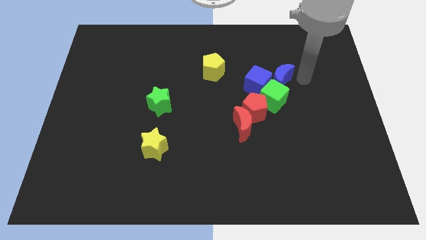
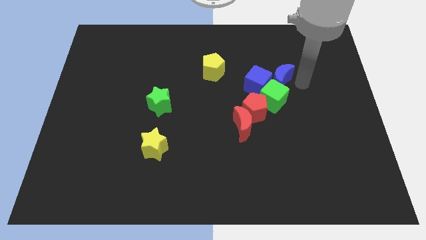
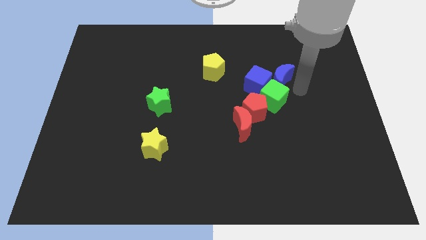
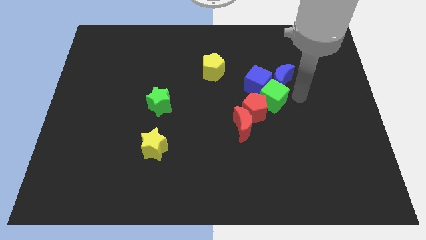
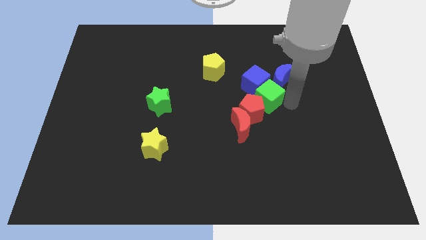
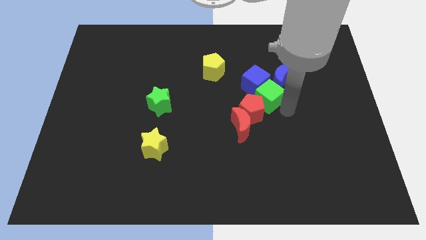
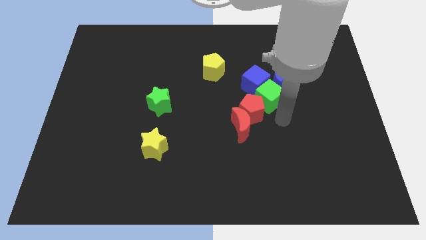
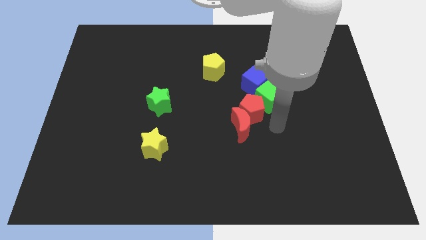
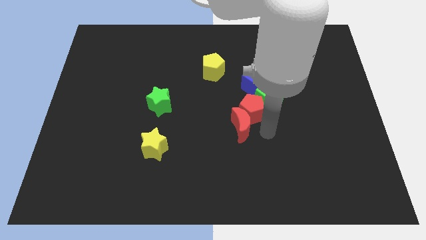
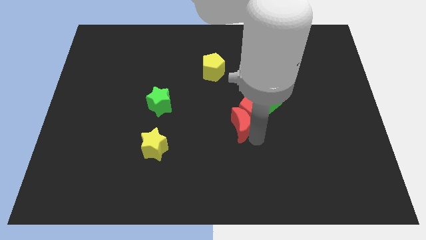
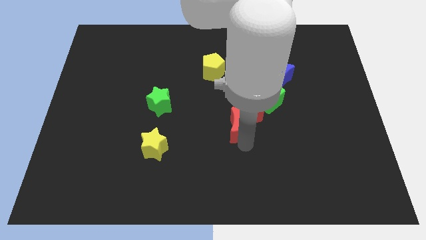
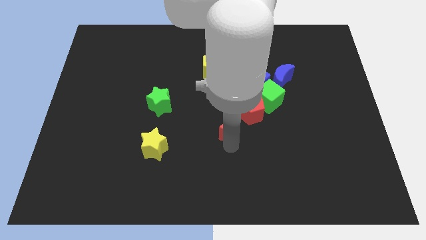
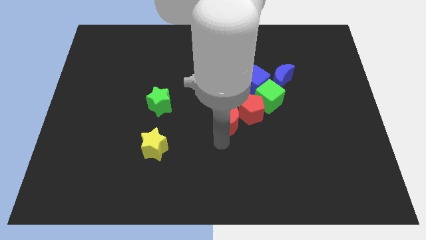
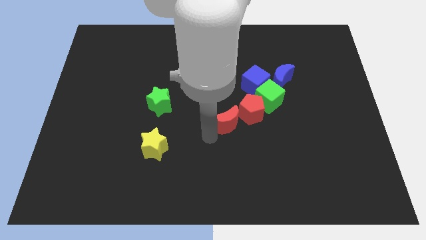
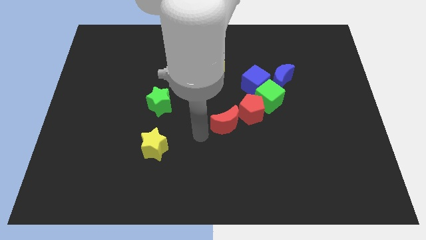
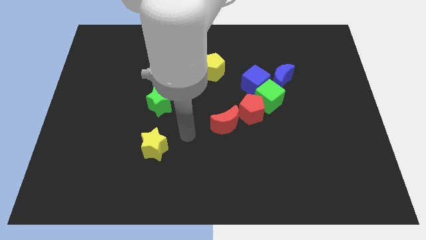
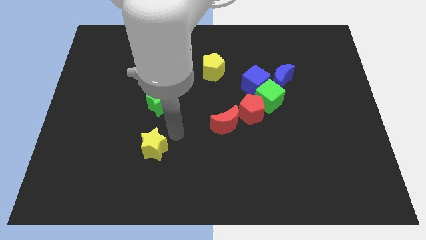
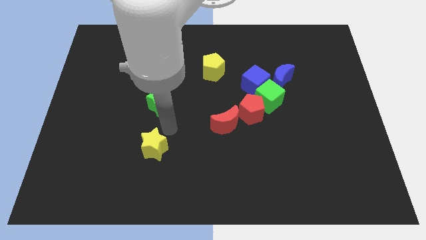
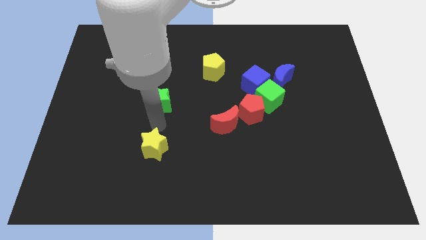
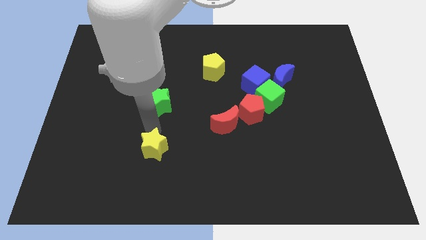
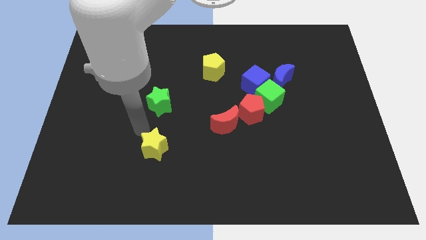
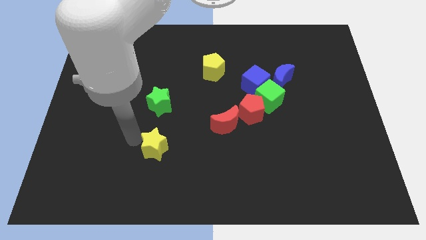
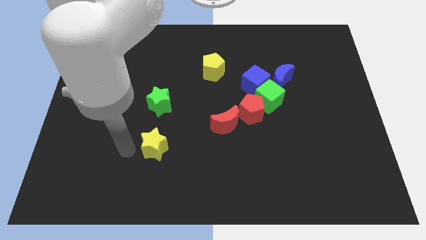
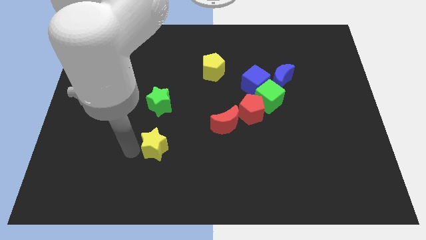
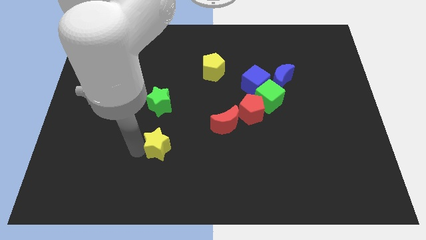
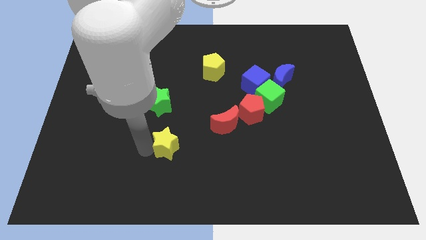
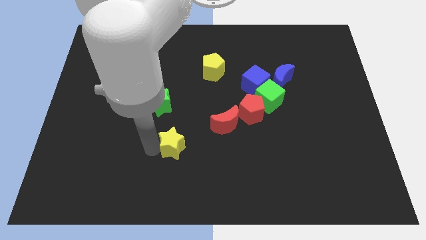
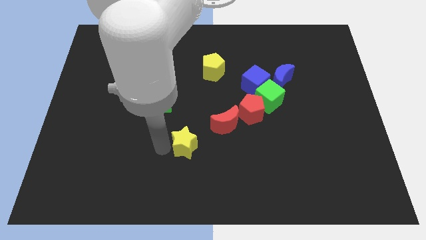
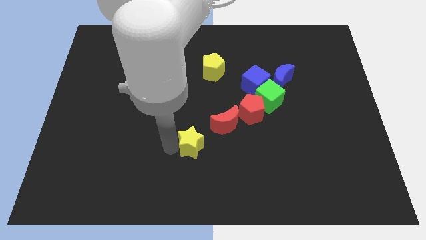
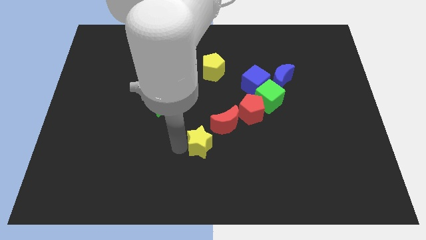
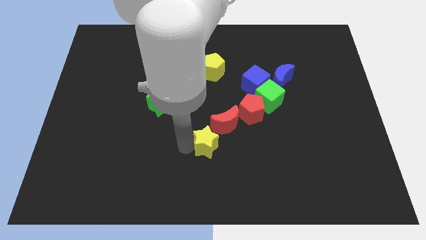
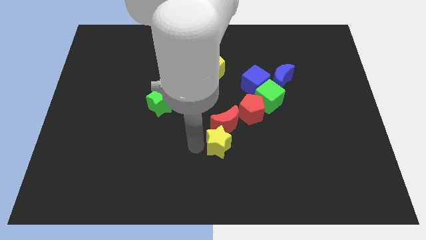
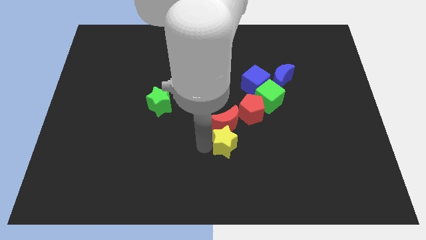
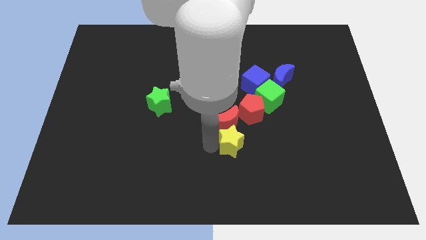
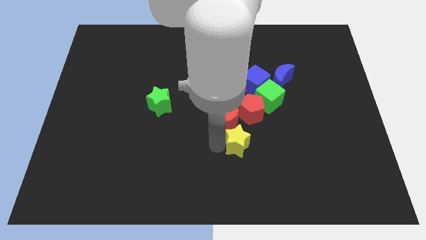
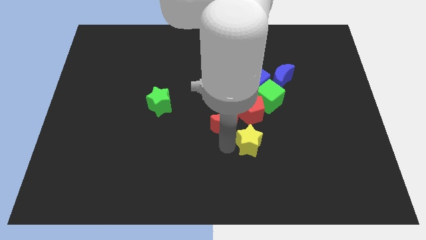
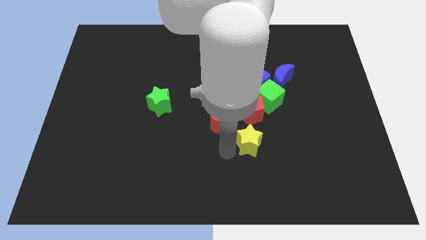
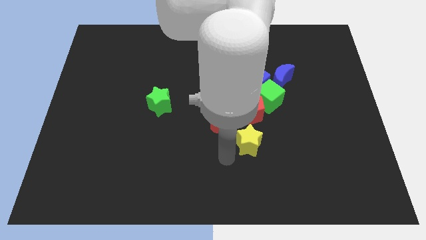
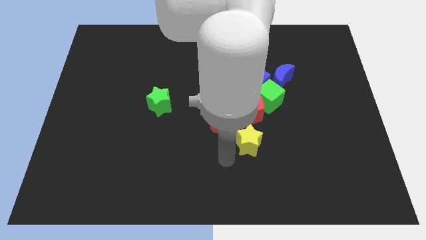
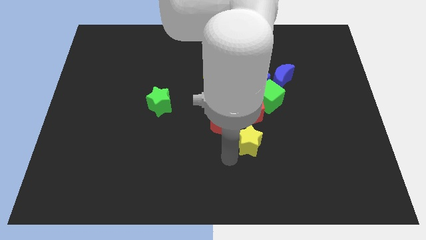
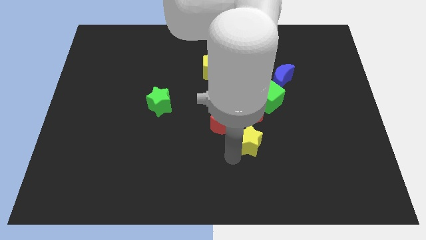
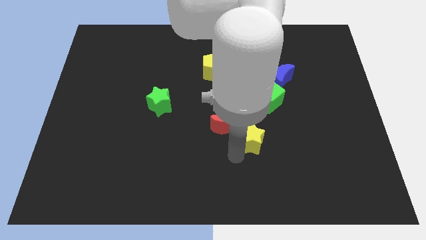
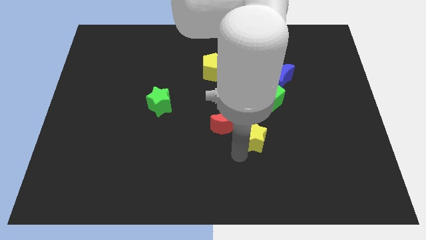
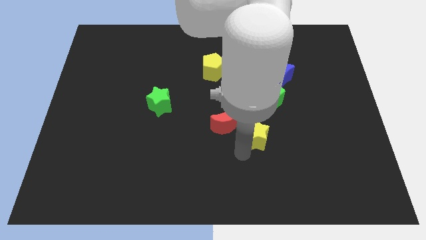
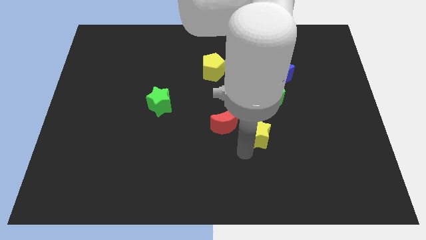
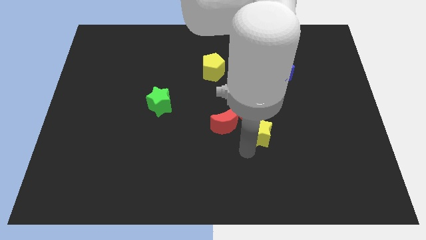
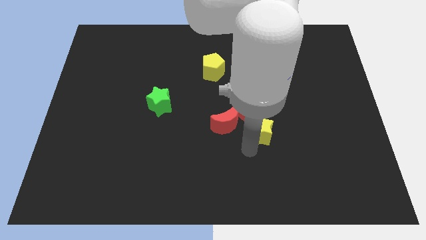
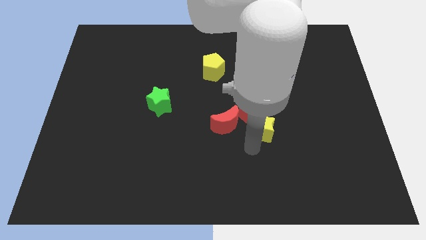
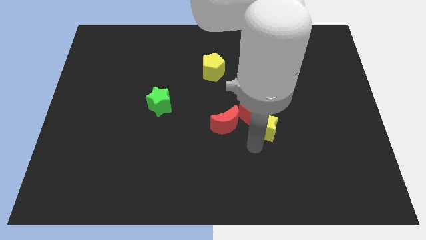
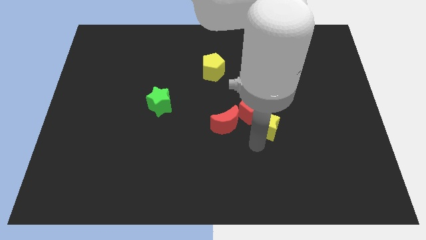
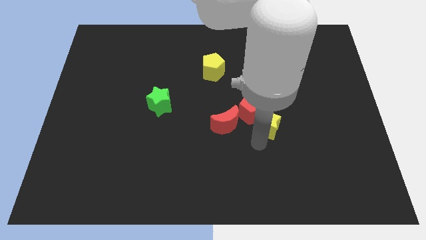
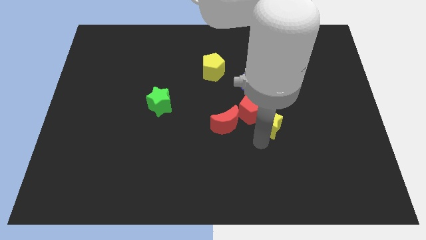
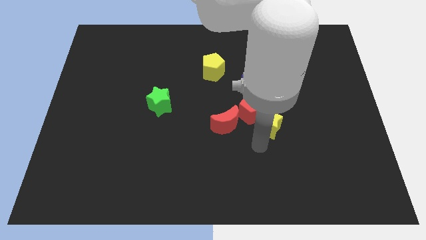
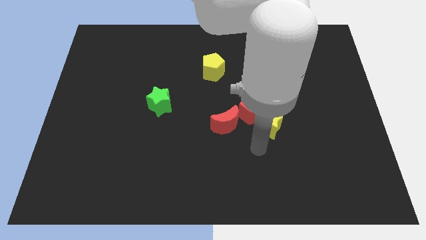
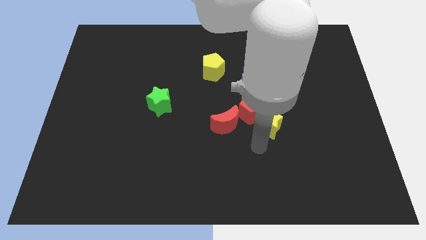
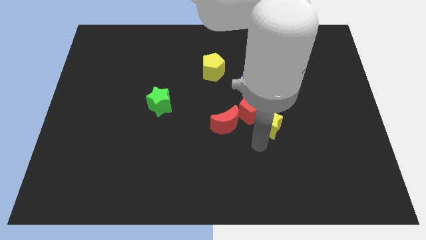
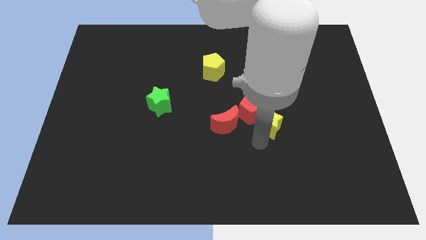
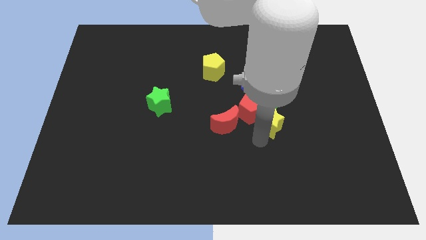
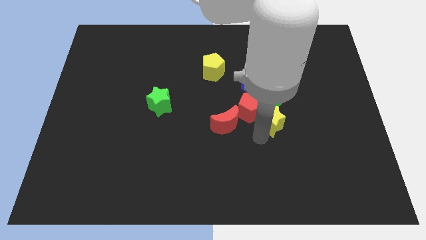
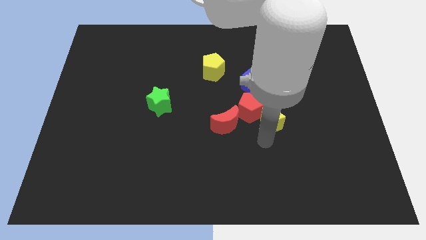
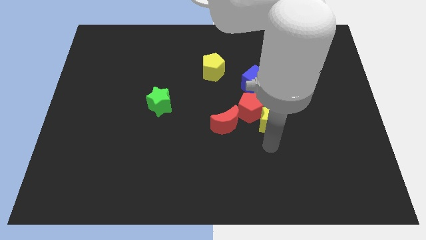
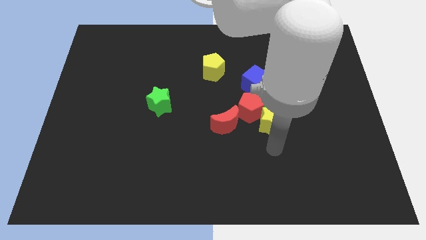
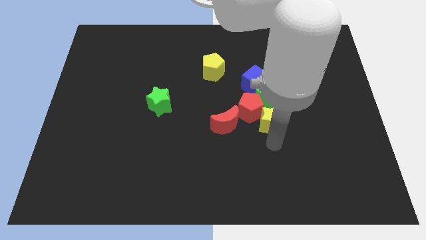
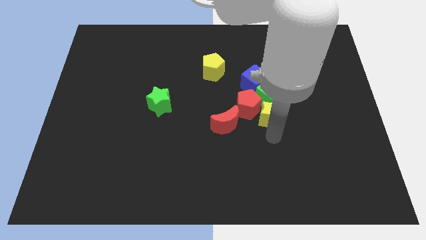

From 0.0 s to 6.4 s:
put the yellow star to the green cube
